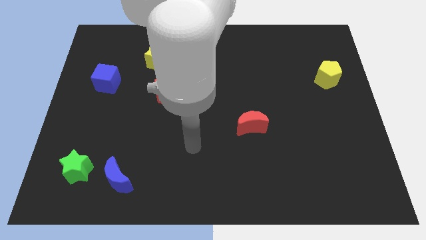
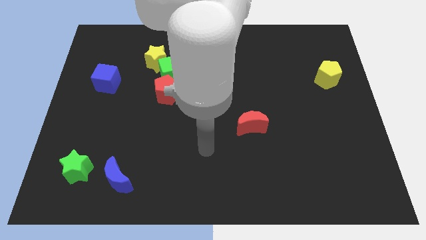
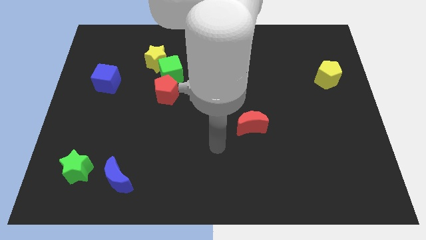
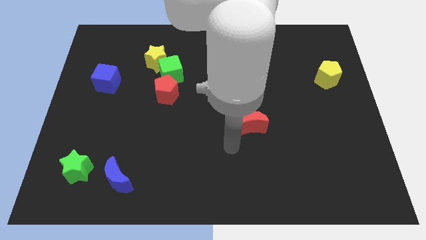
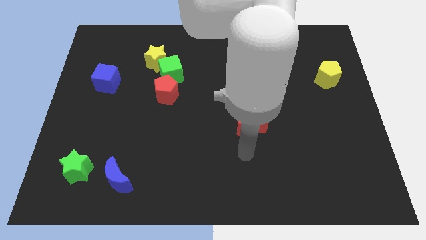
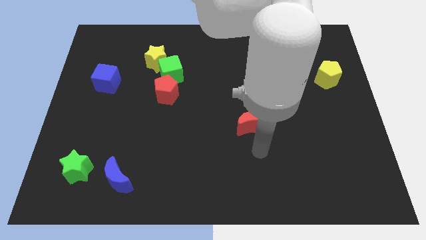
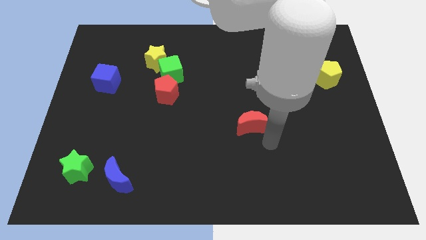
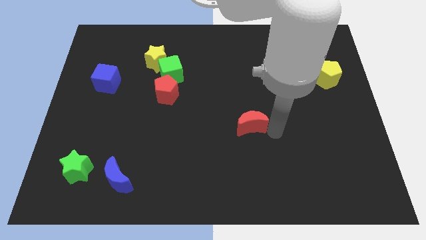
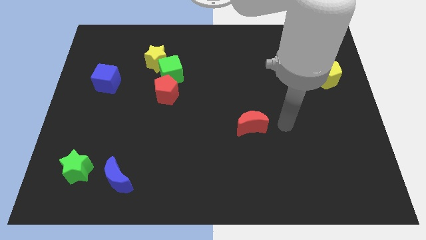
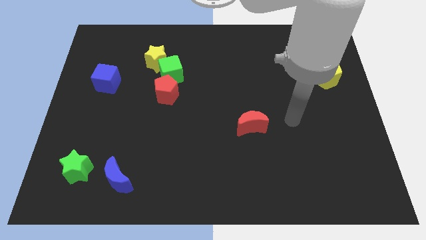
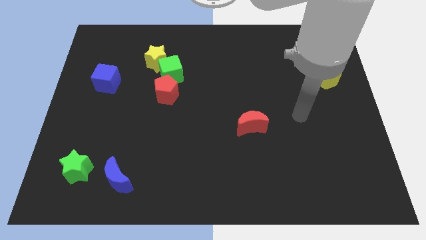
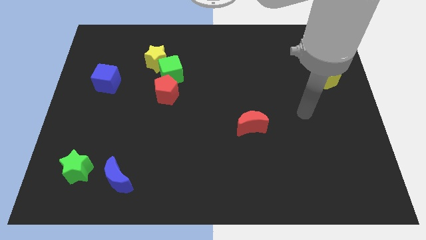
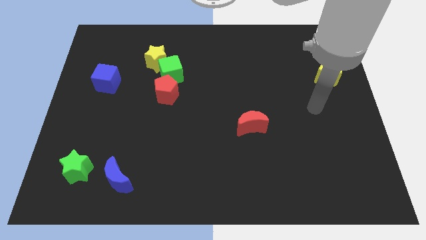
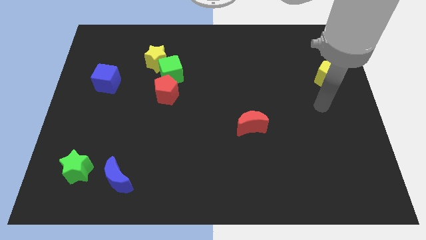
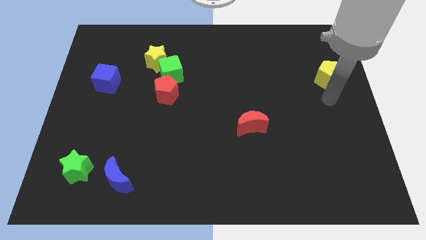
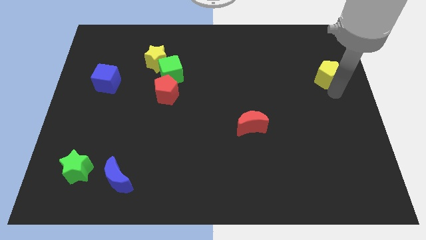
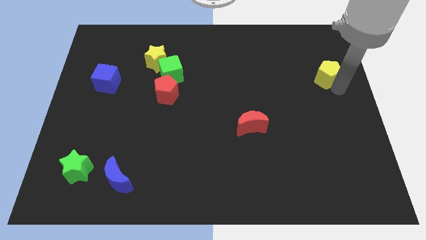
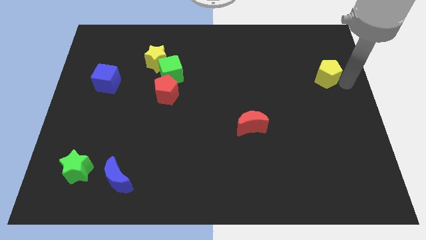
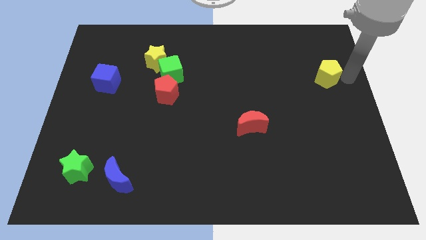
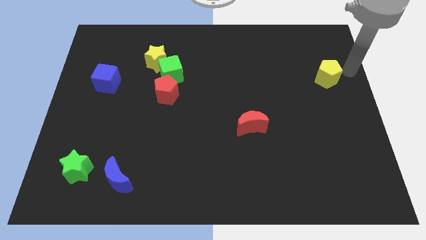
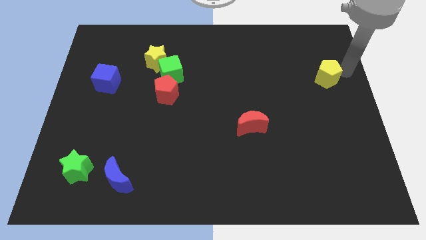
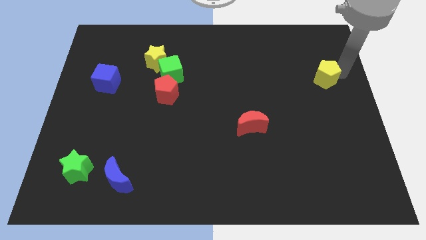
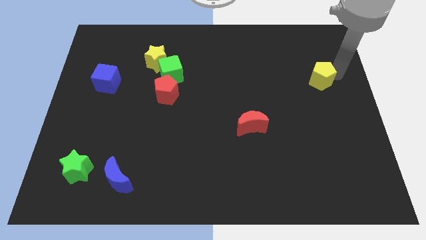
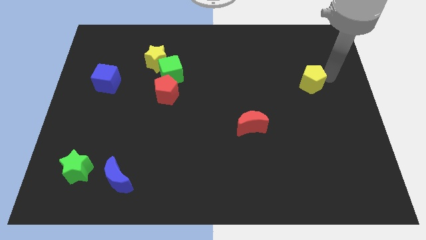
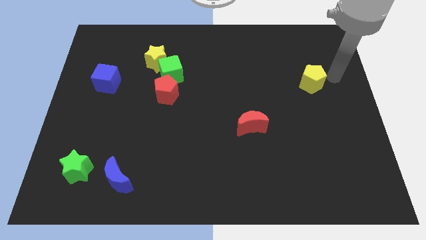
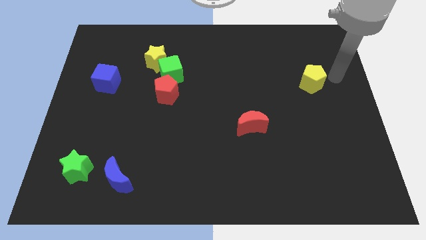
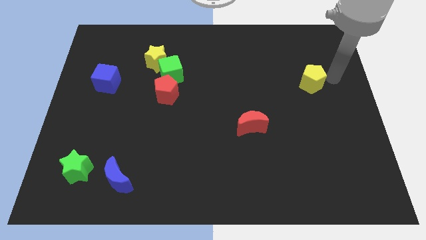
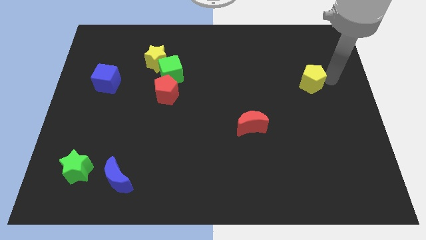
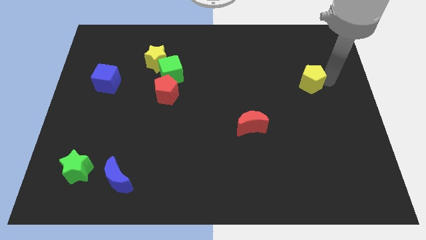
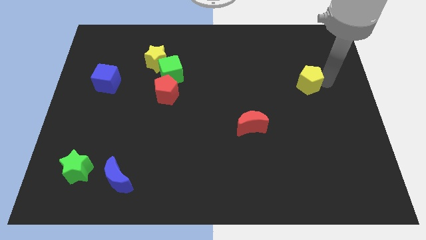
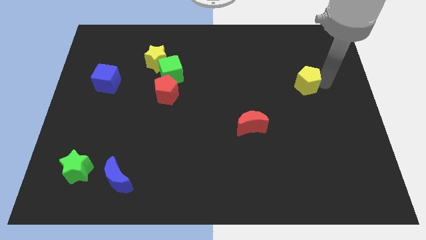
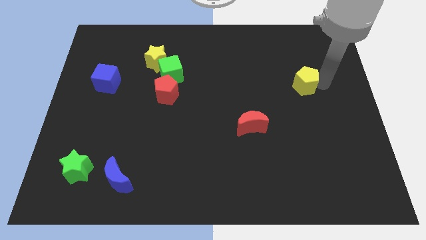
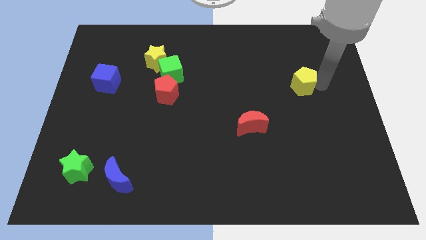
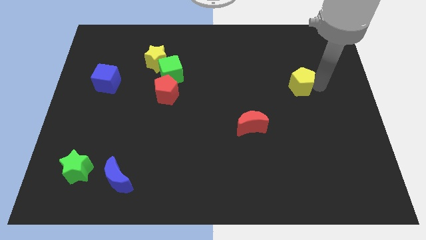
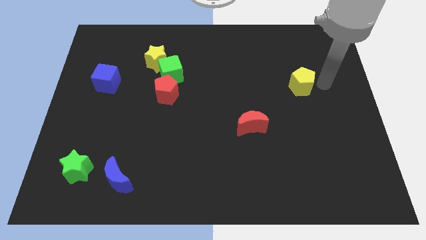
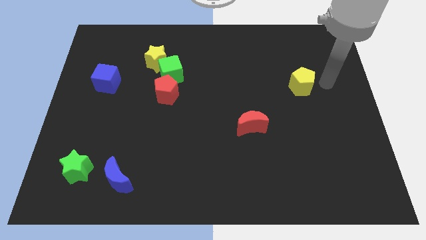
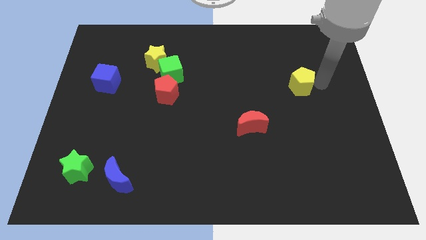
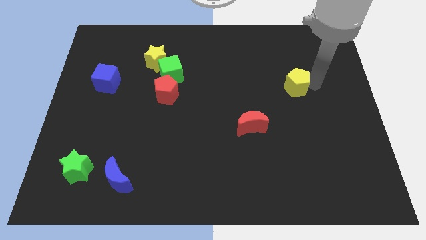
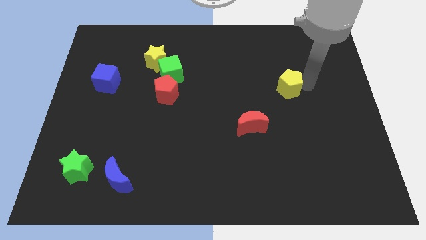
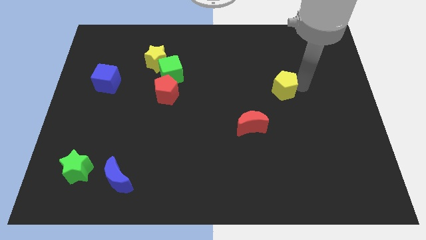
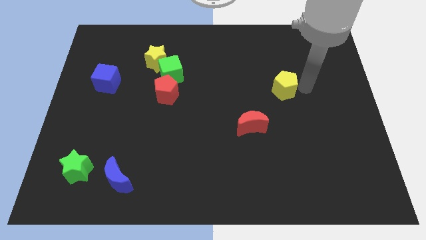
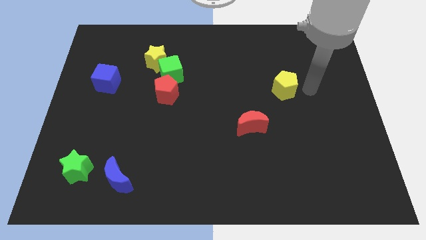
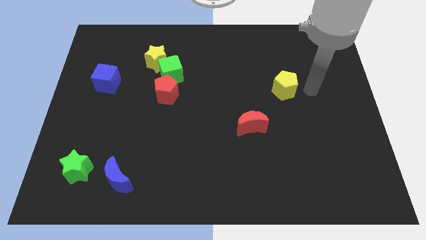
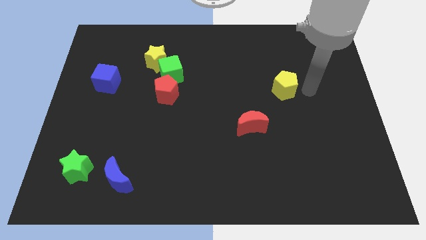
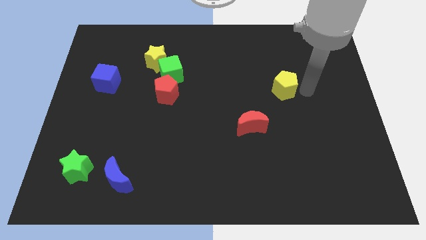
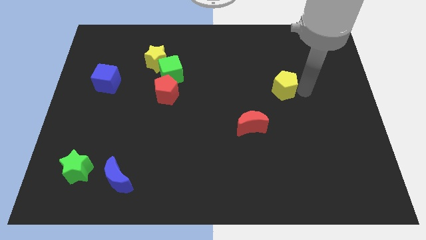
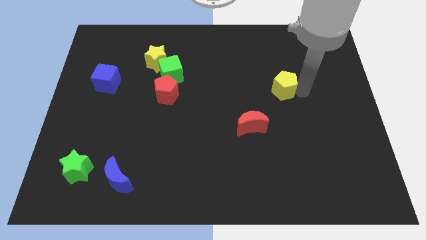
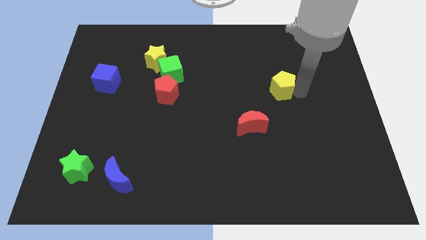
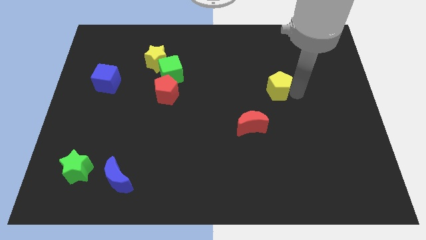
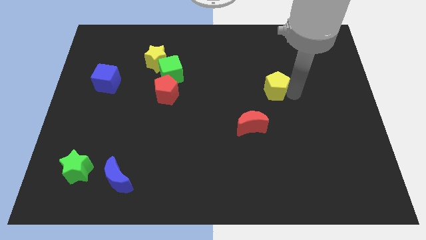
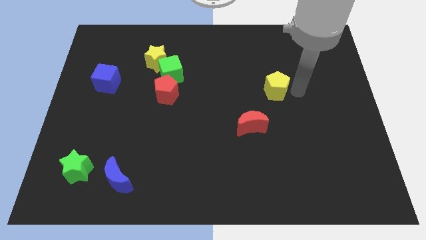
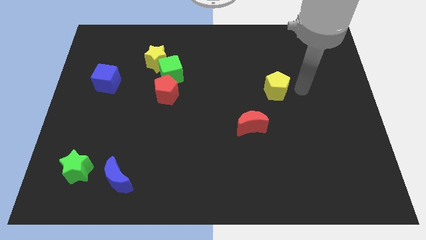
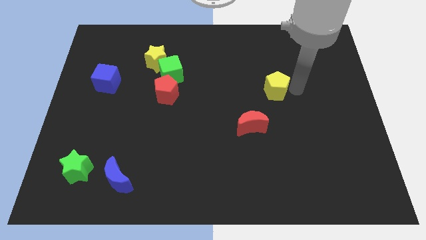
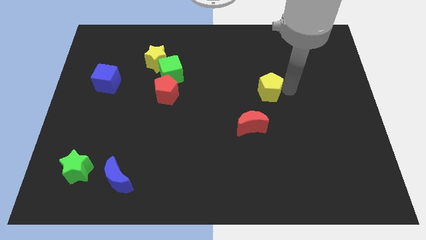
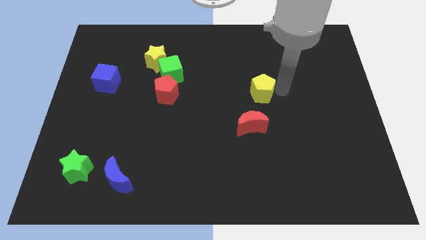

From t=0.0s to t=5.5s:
put the yellow pentagon to the top side of the red moon
